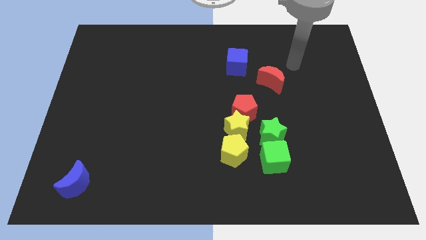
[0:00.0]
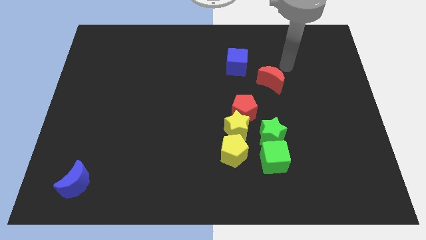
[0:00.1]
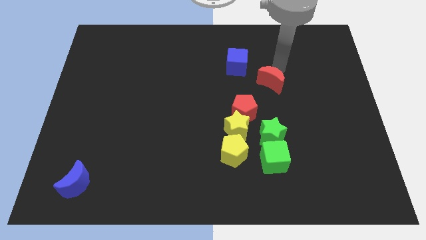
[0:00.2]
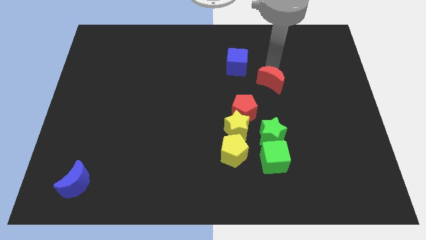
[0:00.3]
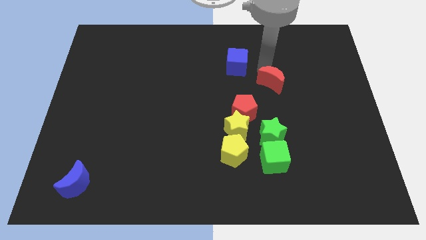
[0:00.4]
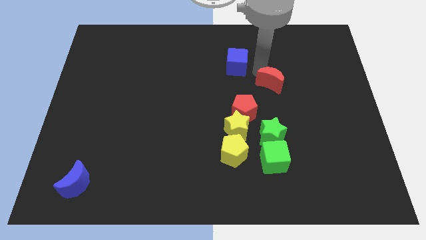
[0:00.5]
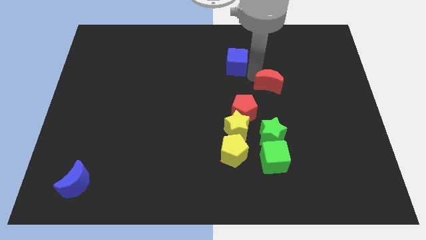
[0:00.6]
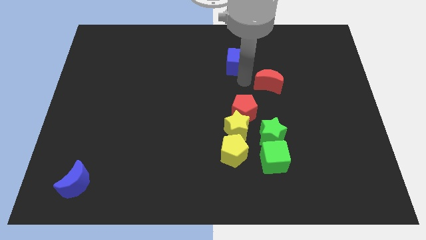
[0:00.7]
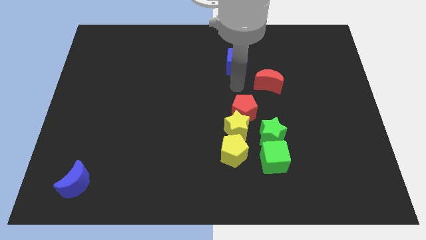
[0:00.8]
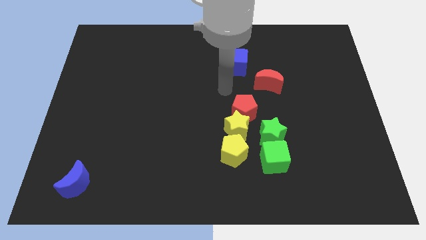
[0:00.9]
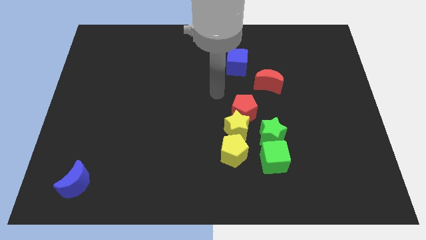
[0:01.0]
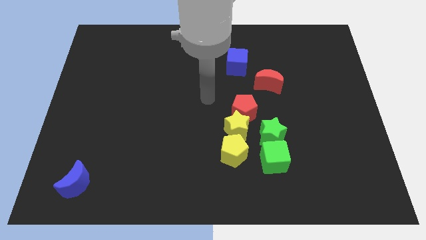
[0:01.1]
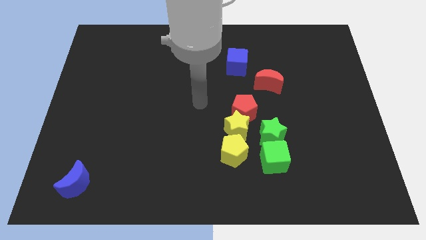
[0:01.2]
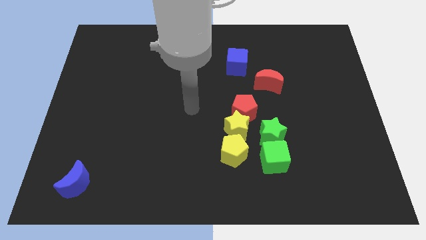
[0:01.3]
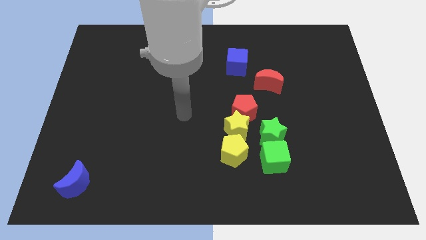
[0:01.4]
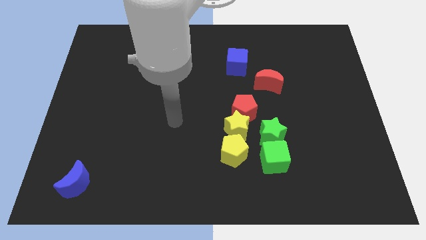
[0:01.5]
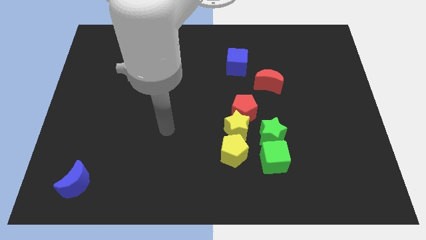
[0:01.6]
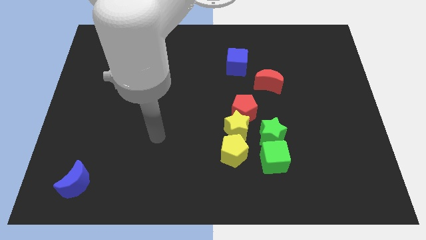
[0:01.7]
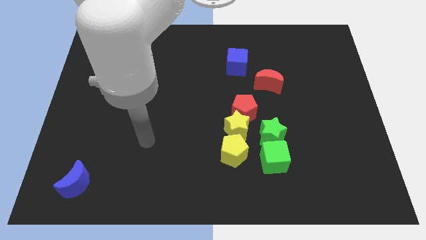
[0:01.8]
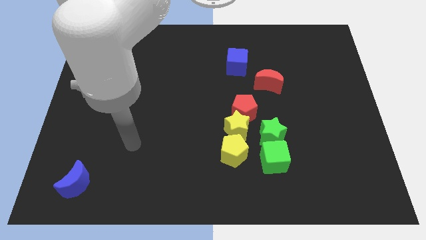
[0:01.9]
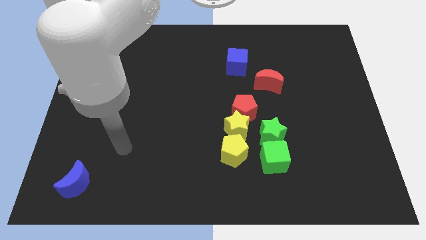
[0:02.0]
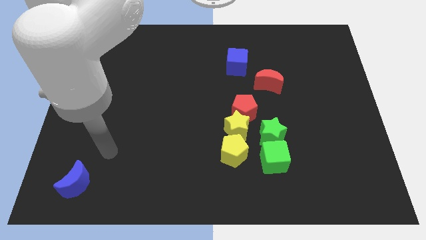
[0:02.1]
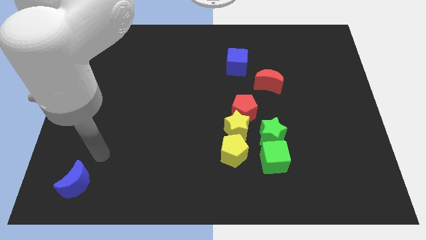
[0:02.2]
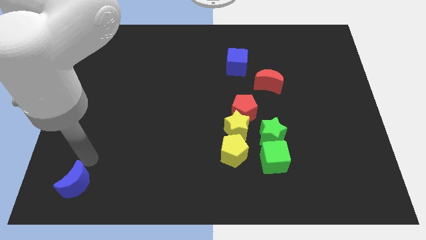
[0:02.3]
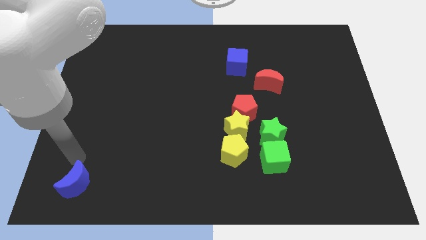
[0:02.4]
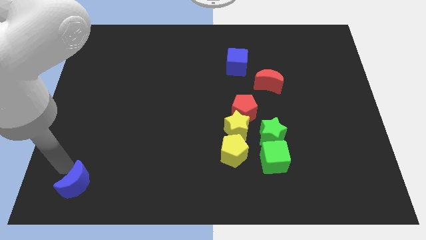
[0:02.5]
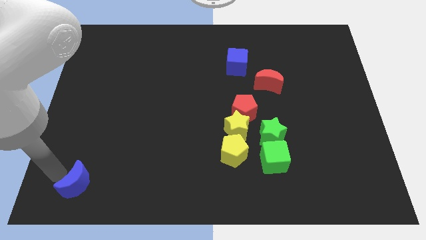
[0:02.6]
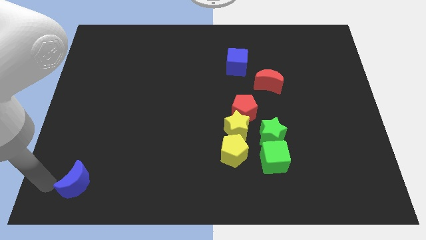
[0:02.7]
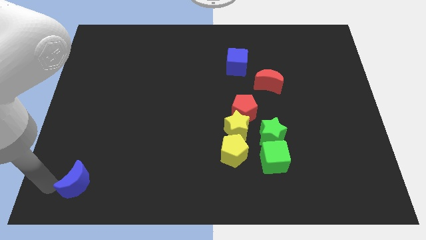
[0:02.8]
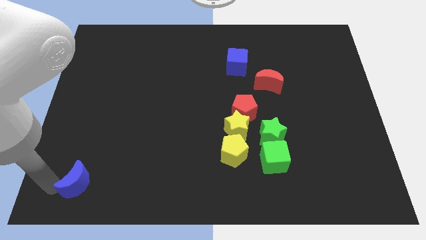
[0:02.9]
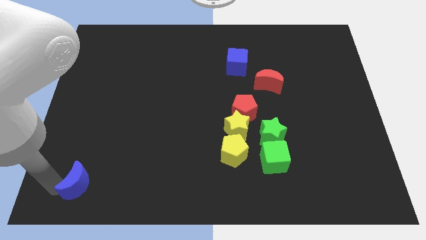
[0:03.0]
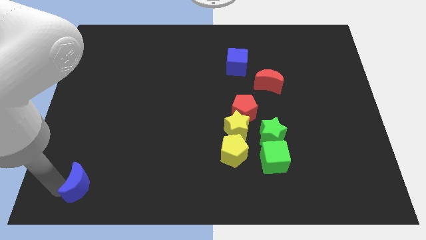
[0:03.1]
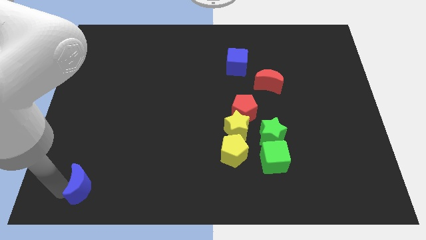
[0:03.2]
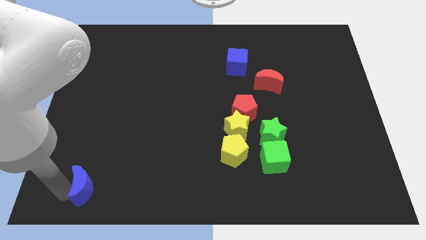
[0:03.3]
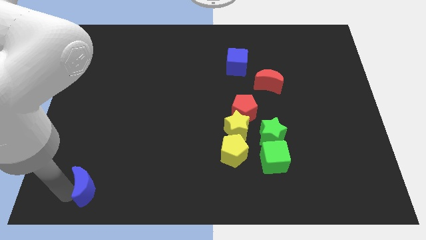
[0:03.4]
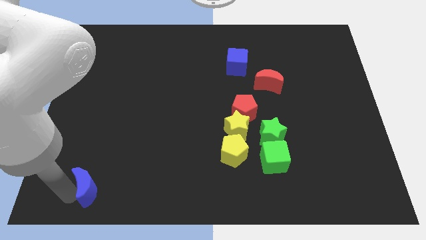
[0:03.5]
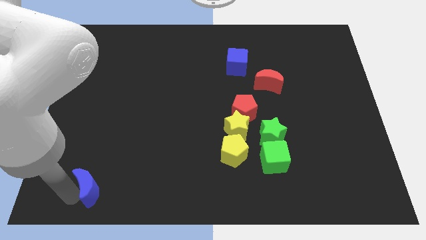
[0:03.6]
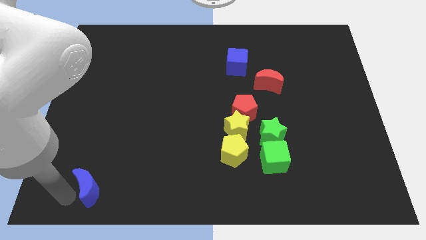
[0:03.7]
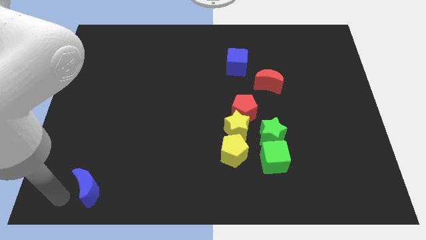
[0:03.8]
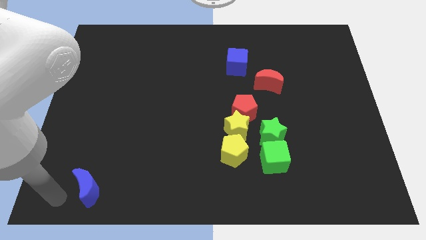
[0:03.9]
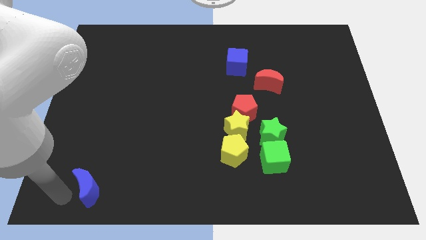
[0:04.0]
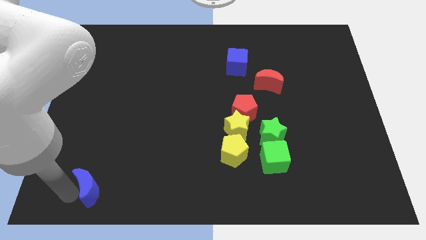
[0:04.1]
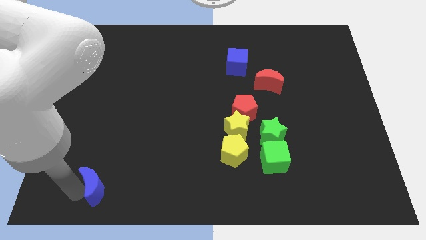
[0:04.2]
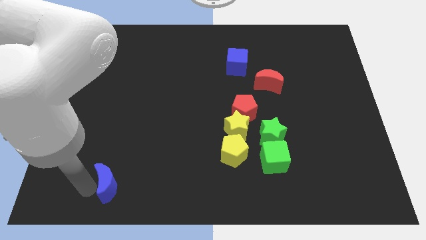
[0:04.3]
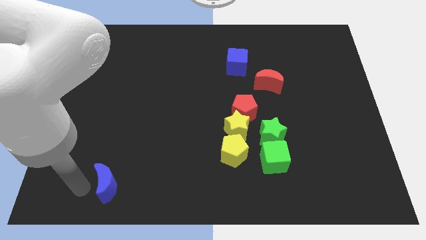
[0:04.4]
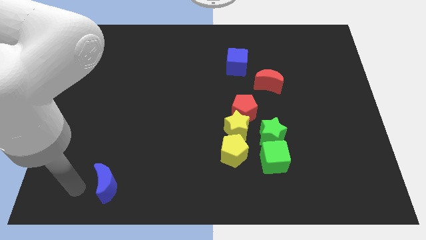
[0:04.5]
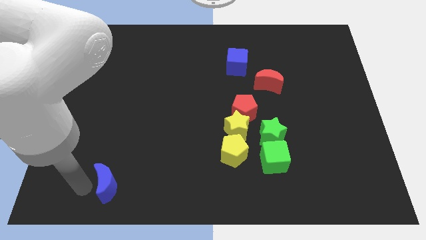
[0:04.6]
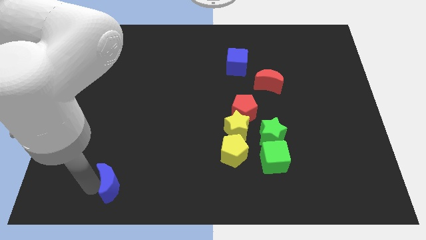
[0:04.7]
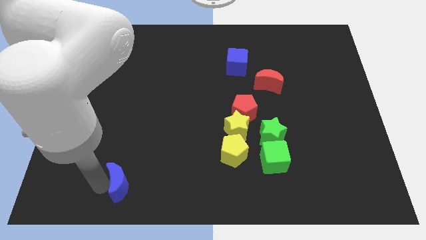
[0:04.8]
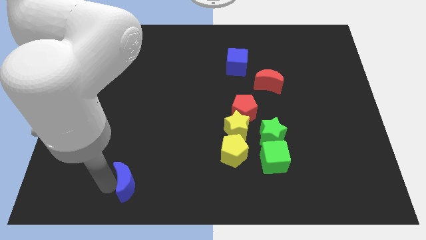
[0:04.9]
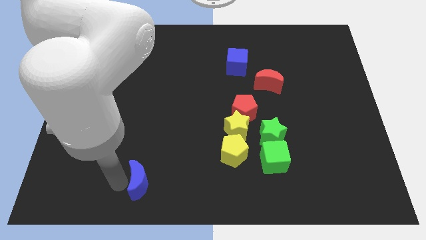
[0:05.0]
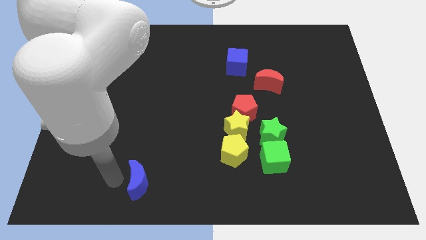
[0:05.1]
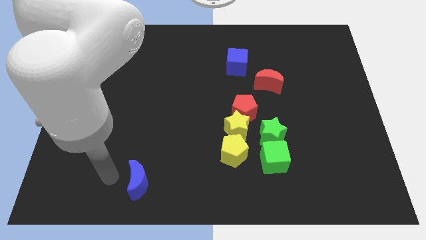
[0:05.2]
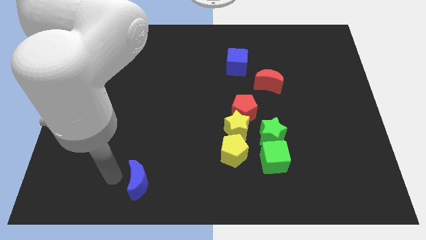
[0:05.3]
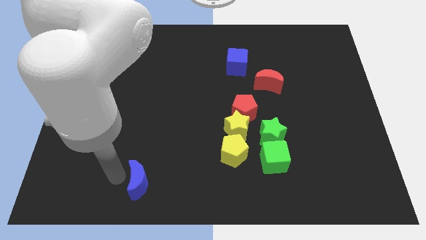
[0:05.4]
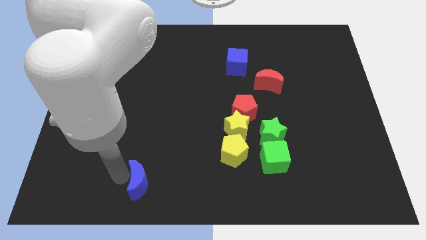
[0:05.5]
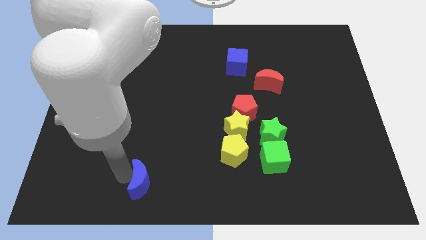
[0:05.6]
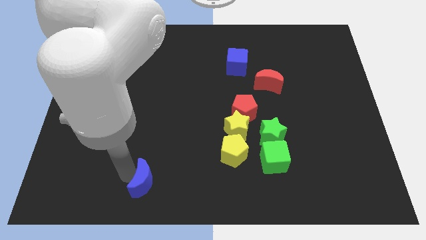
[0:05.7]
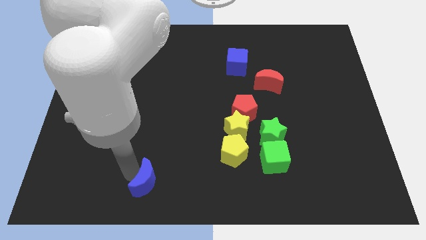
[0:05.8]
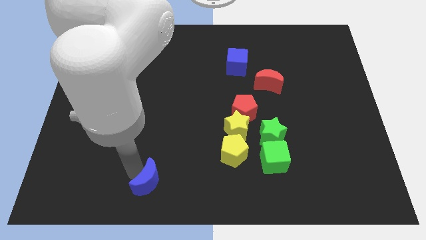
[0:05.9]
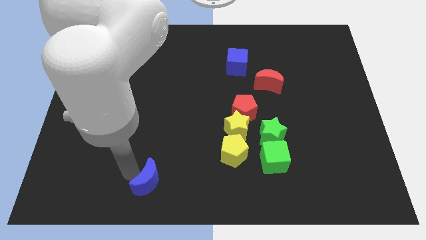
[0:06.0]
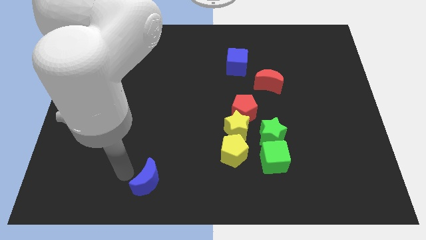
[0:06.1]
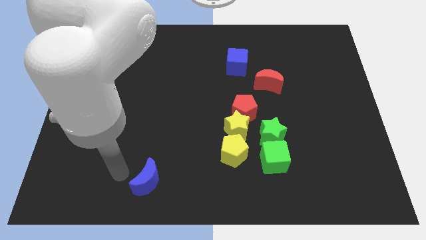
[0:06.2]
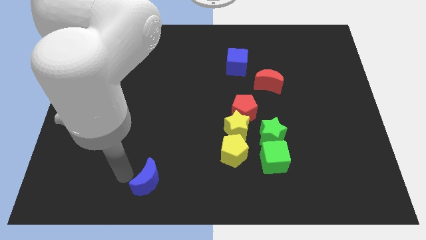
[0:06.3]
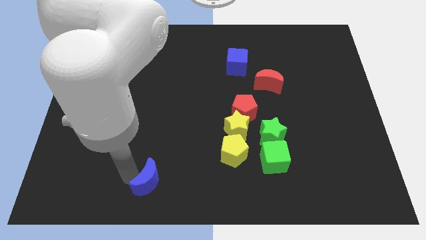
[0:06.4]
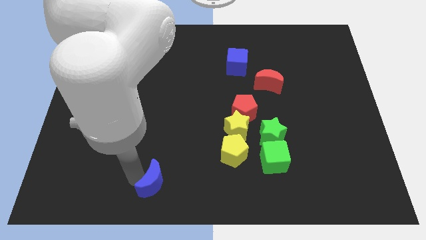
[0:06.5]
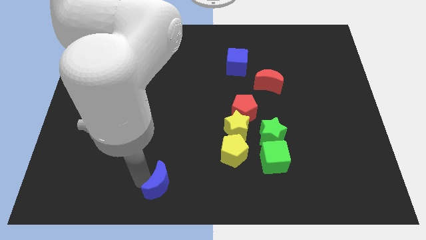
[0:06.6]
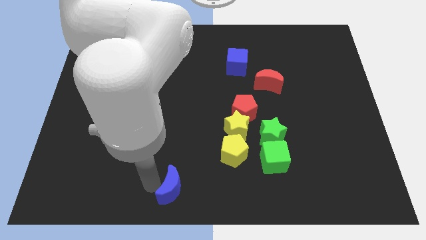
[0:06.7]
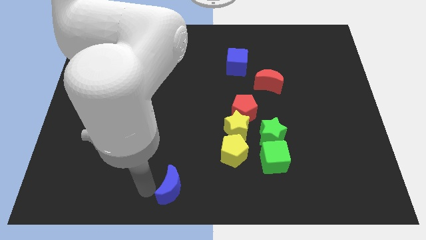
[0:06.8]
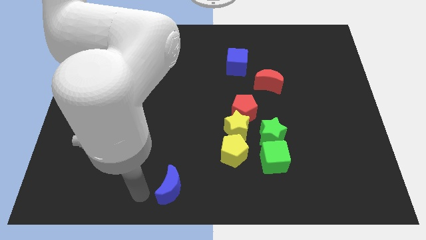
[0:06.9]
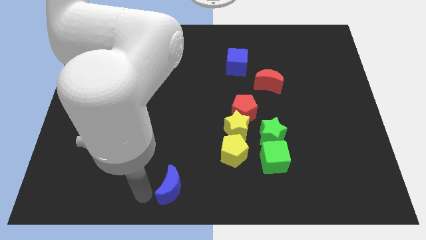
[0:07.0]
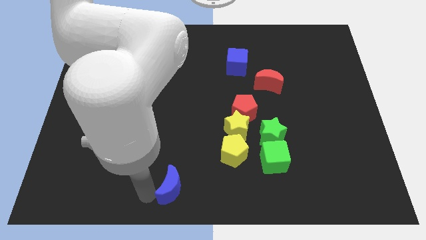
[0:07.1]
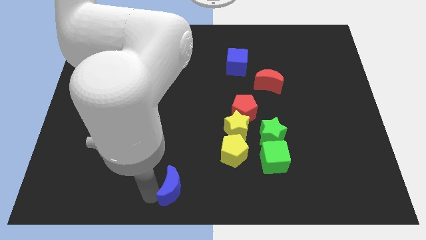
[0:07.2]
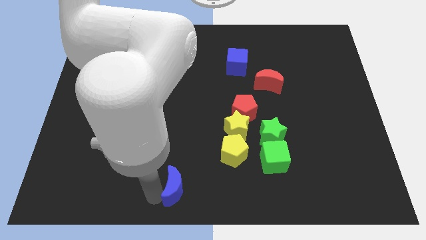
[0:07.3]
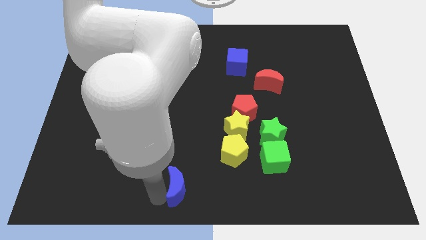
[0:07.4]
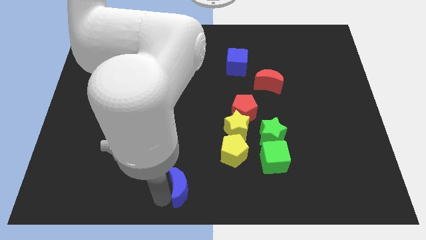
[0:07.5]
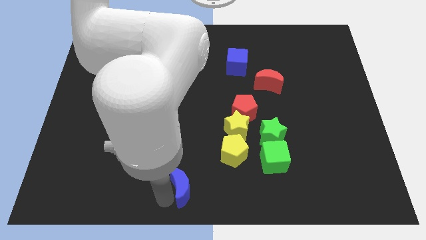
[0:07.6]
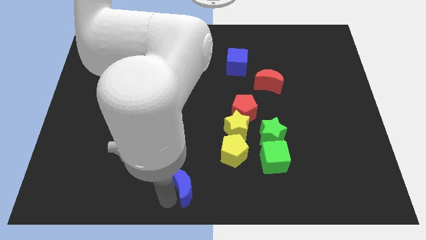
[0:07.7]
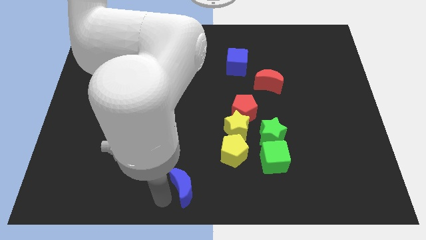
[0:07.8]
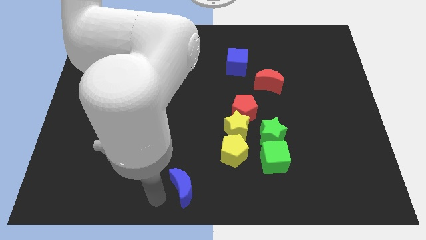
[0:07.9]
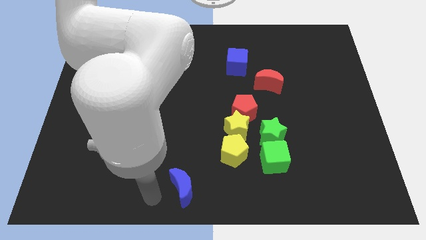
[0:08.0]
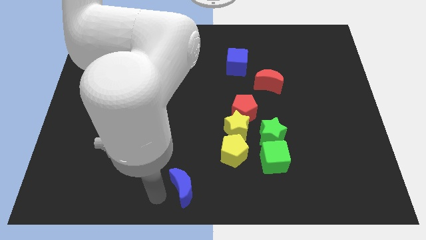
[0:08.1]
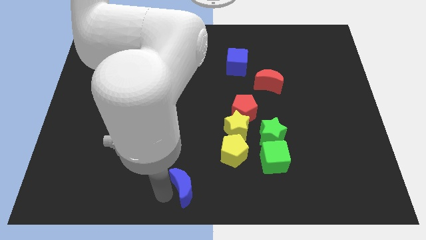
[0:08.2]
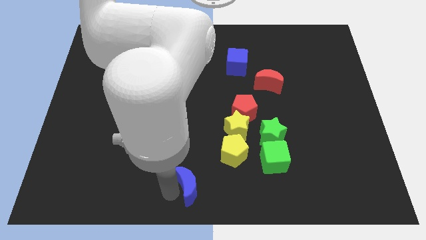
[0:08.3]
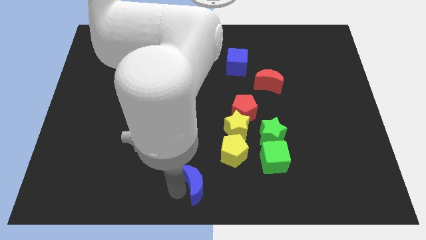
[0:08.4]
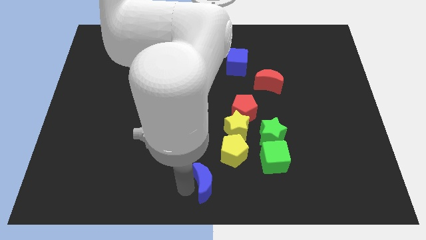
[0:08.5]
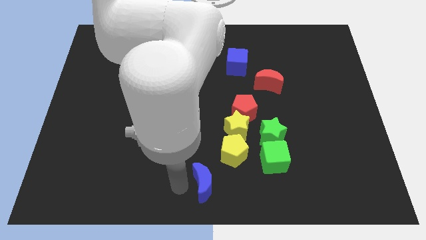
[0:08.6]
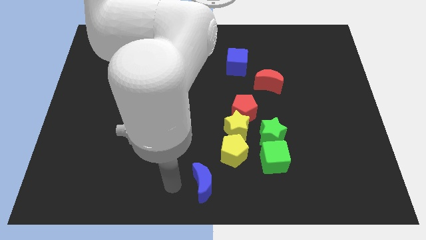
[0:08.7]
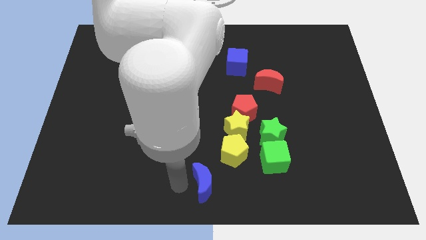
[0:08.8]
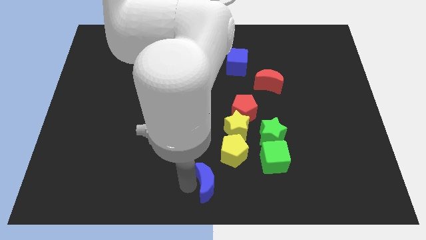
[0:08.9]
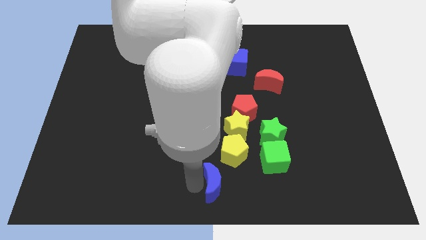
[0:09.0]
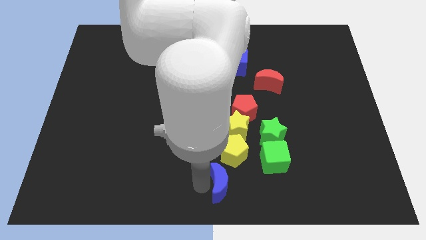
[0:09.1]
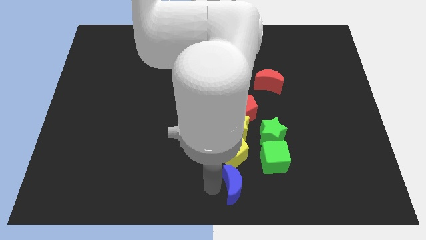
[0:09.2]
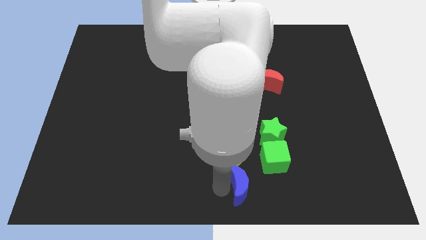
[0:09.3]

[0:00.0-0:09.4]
slide the blue moon to the bottom right of the yellow pentagon
